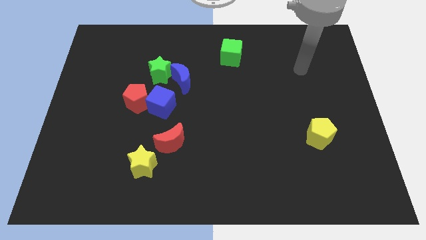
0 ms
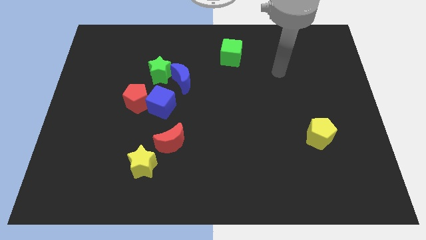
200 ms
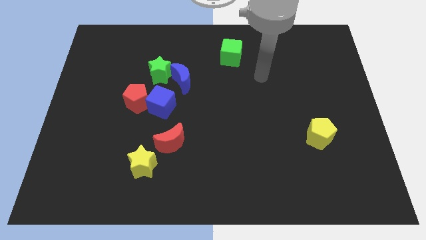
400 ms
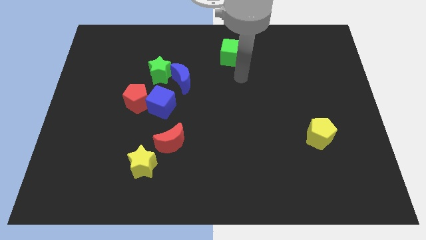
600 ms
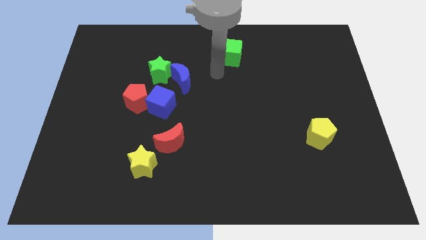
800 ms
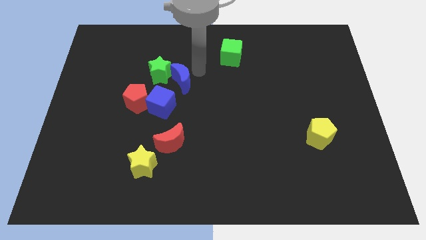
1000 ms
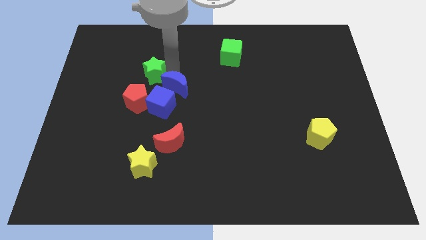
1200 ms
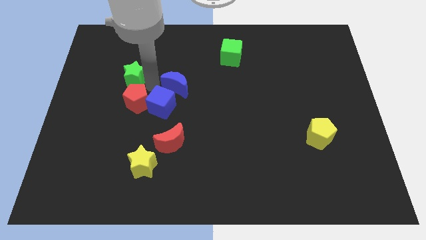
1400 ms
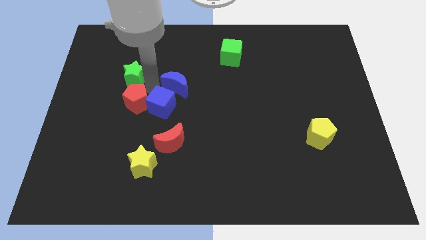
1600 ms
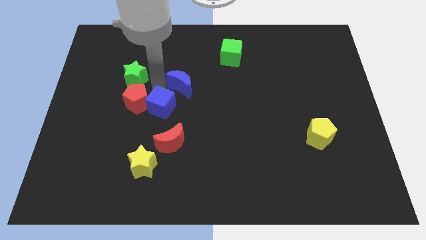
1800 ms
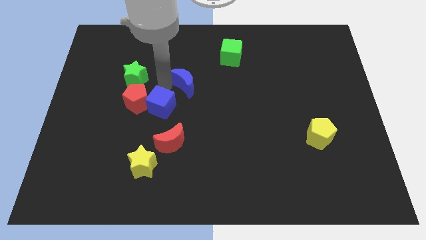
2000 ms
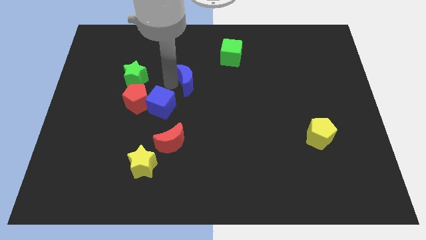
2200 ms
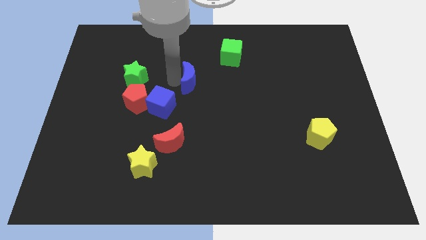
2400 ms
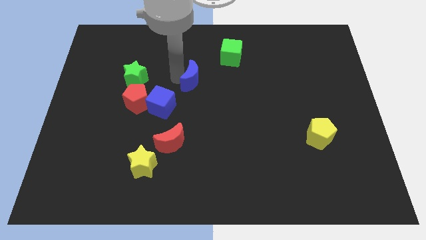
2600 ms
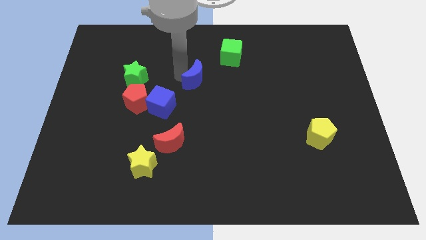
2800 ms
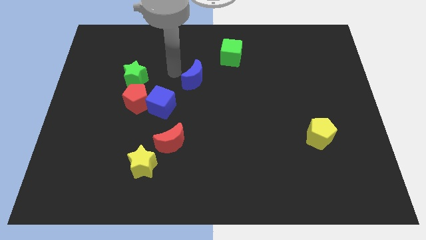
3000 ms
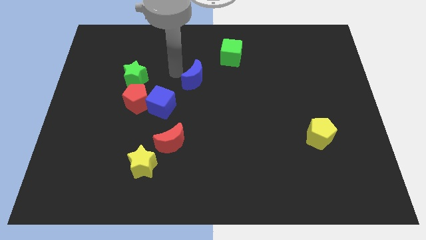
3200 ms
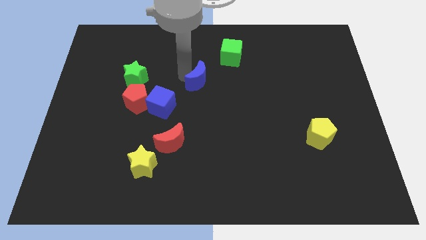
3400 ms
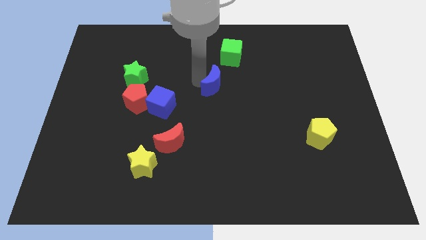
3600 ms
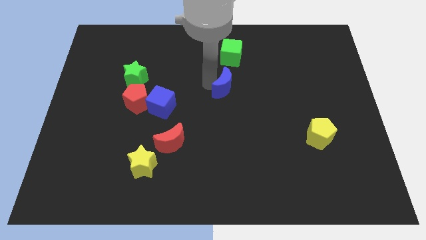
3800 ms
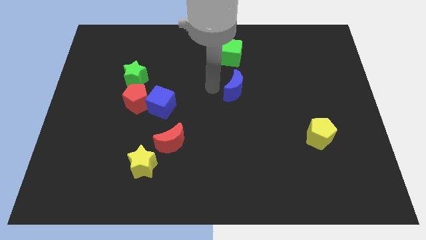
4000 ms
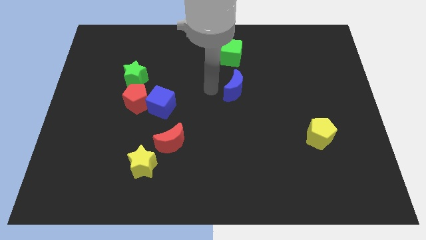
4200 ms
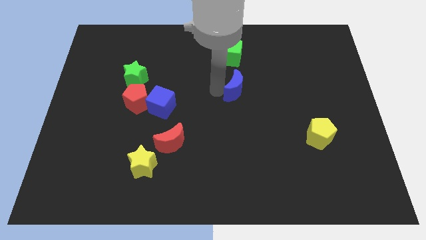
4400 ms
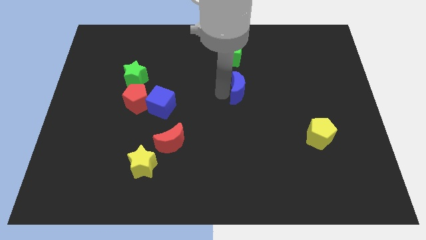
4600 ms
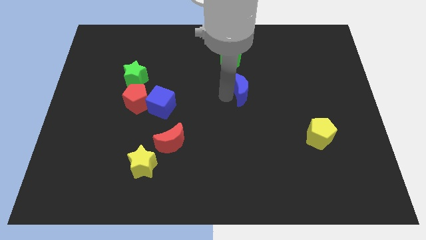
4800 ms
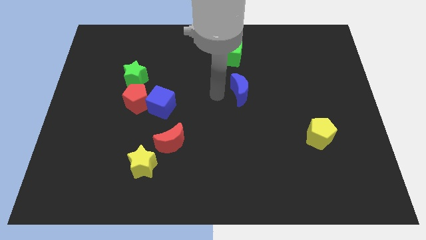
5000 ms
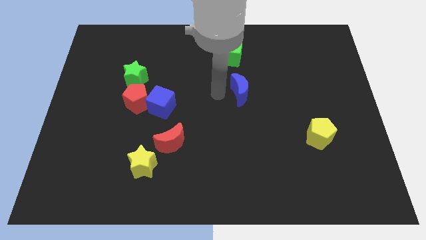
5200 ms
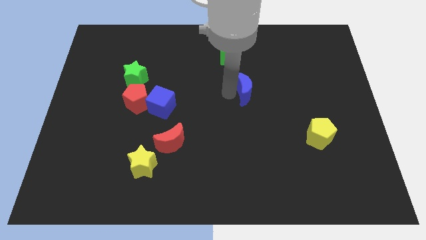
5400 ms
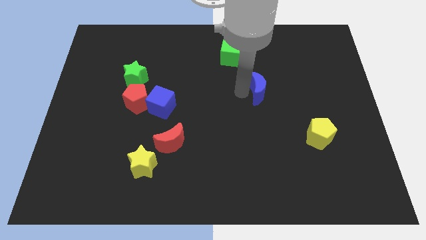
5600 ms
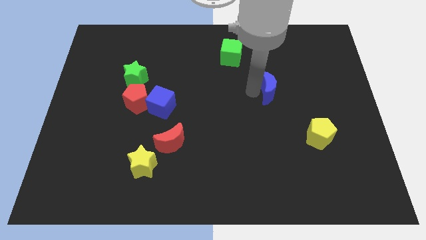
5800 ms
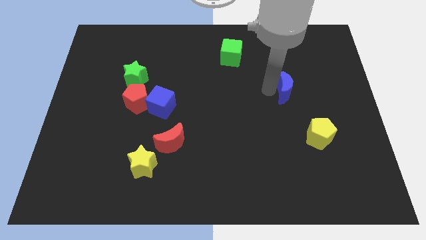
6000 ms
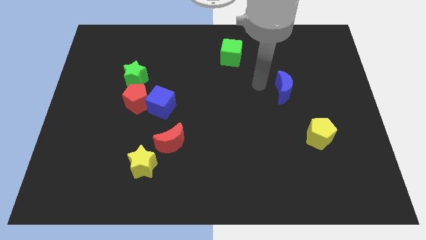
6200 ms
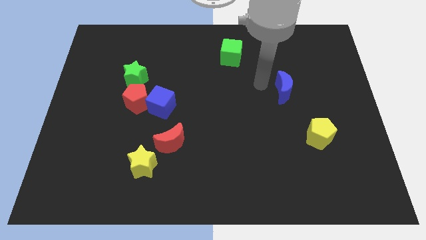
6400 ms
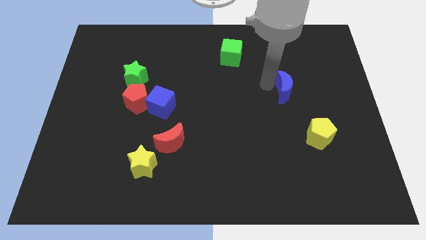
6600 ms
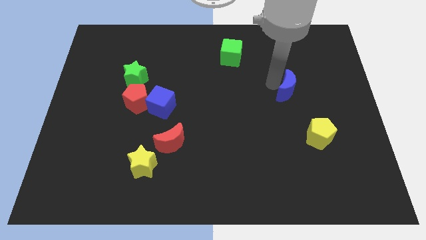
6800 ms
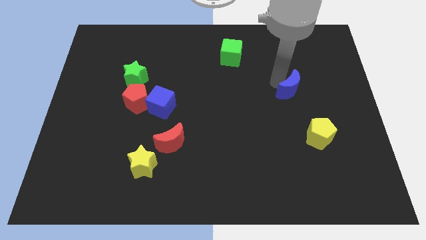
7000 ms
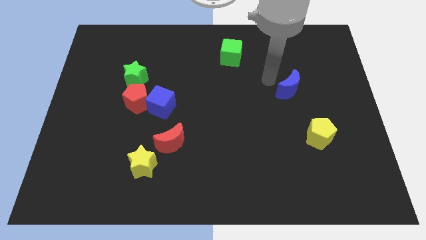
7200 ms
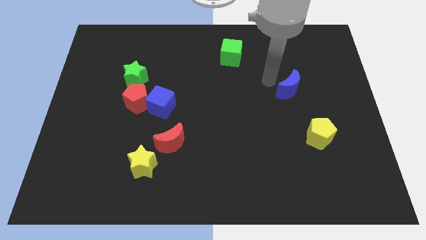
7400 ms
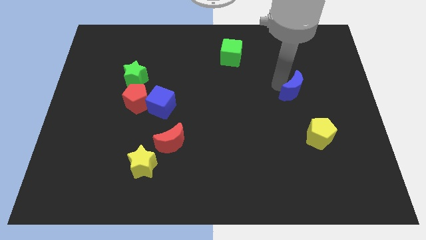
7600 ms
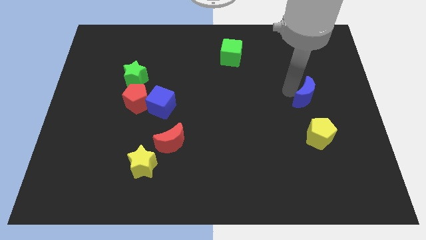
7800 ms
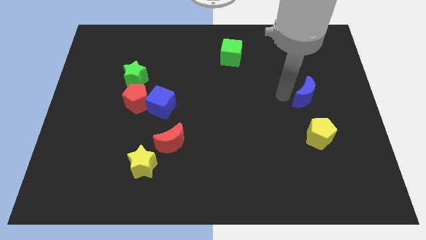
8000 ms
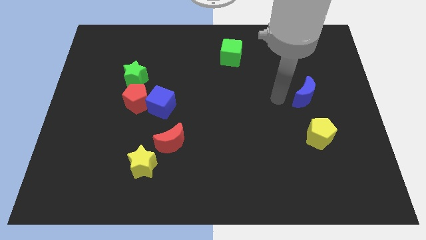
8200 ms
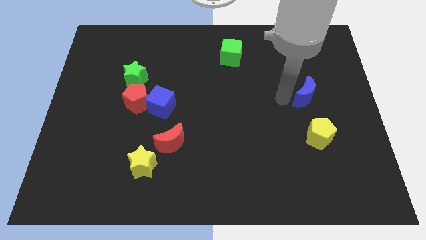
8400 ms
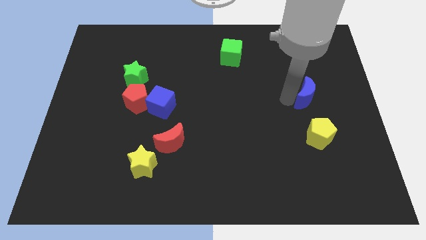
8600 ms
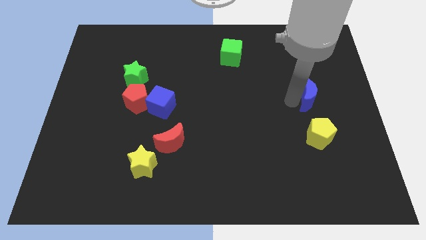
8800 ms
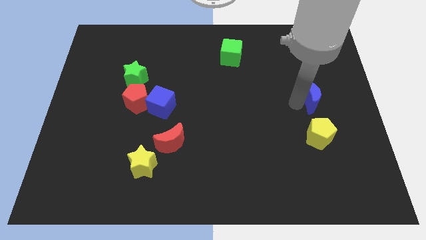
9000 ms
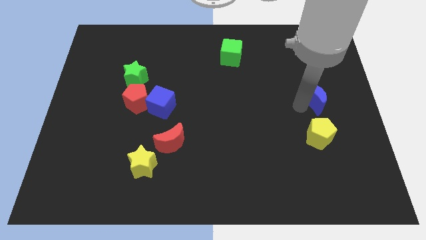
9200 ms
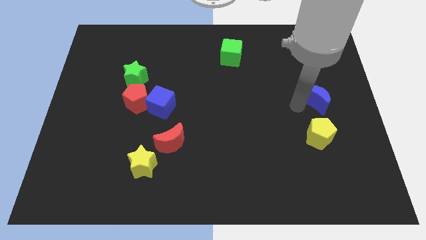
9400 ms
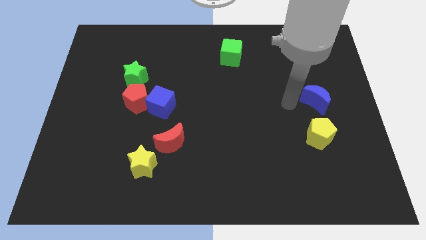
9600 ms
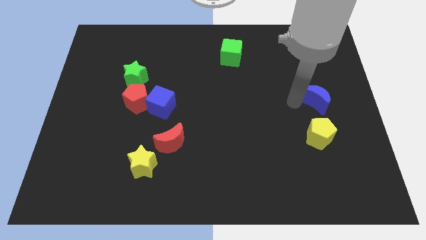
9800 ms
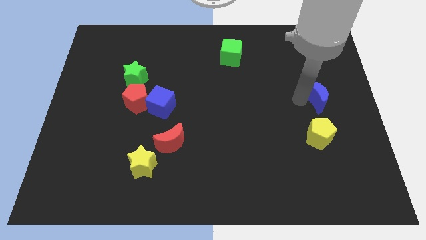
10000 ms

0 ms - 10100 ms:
push the blue moon to the center right

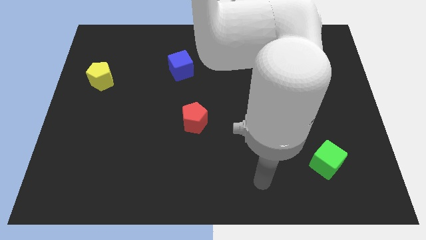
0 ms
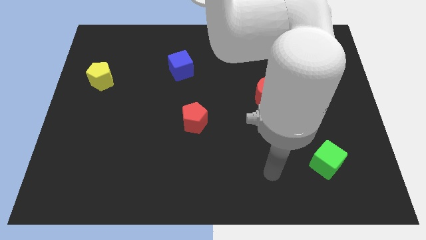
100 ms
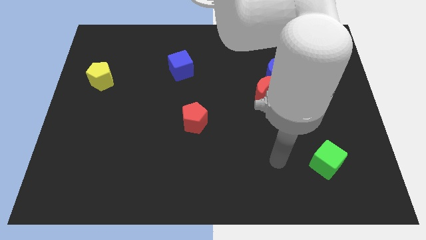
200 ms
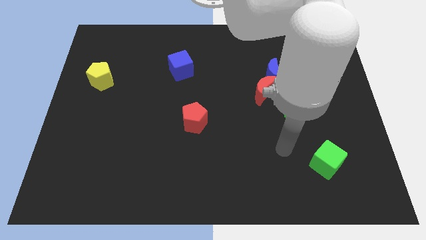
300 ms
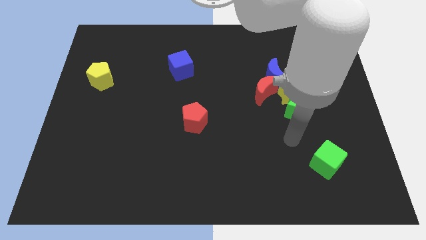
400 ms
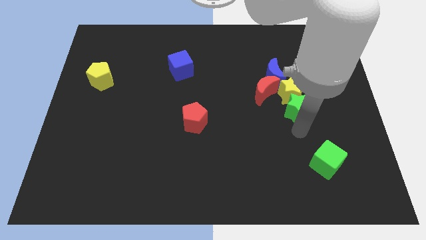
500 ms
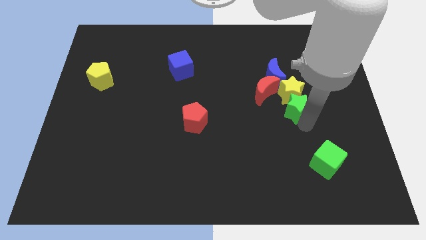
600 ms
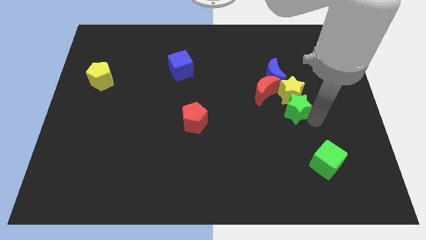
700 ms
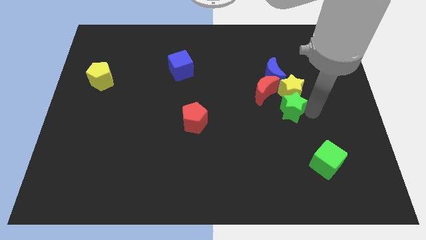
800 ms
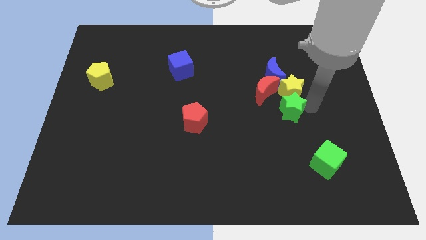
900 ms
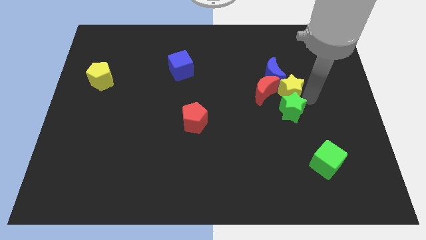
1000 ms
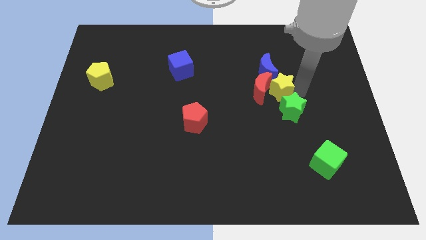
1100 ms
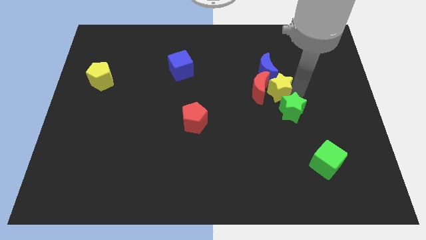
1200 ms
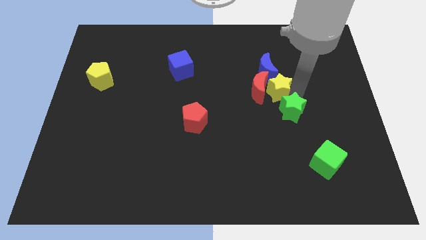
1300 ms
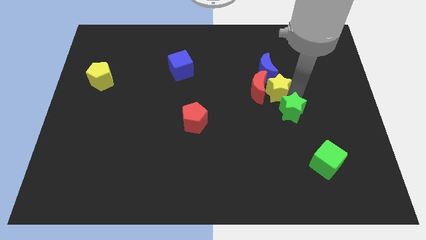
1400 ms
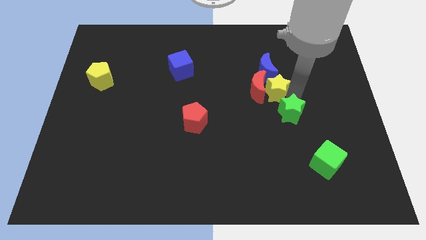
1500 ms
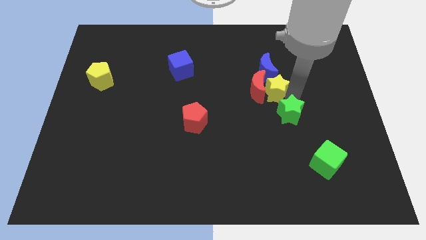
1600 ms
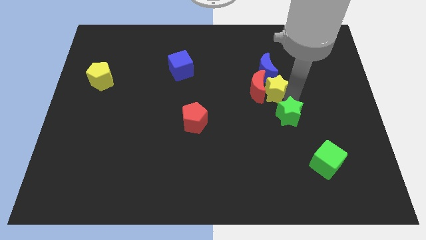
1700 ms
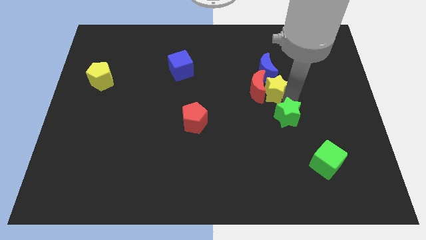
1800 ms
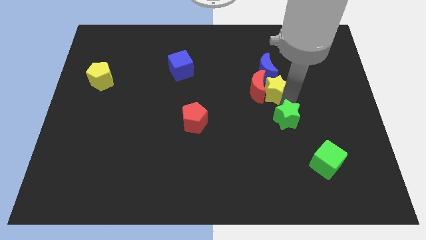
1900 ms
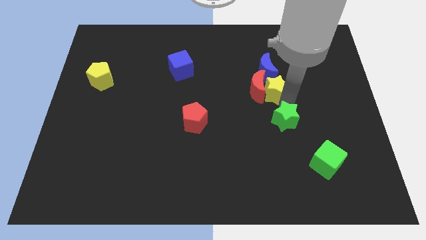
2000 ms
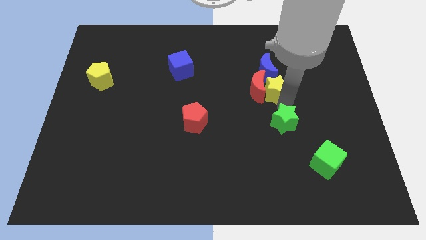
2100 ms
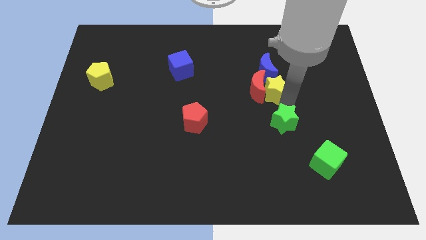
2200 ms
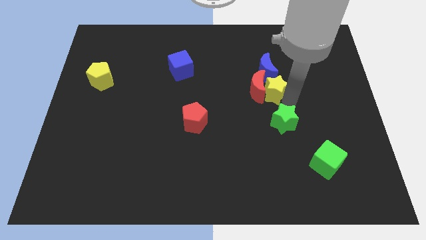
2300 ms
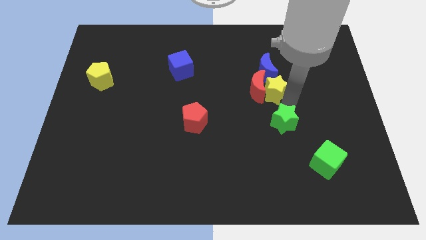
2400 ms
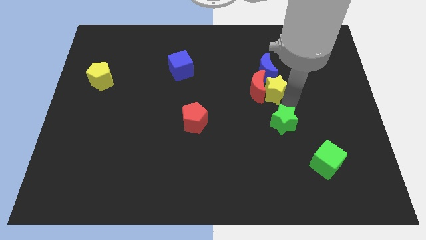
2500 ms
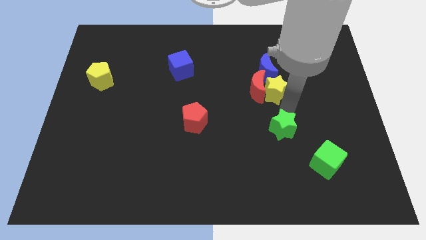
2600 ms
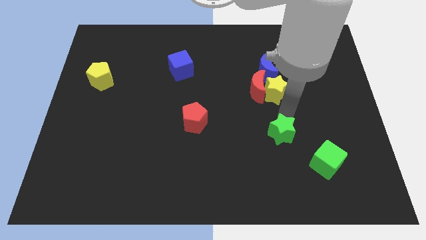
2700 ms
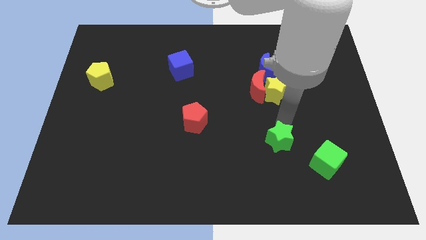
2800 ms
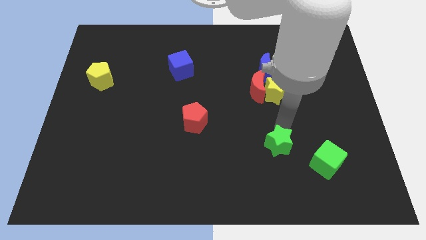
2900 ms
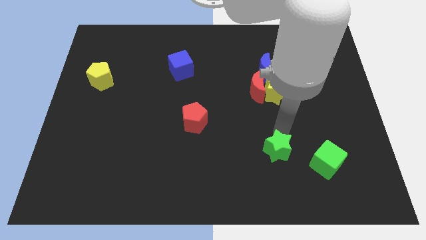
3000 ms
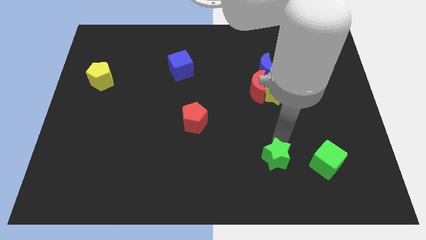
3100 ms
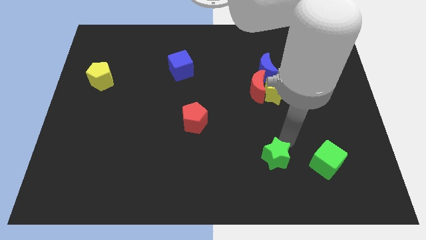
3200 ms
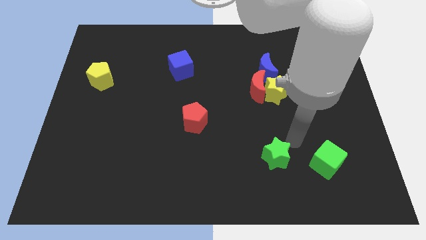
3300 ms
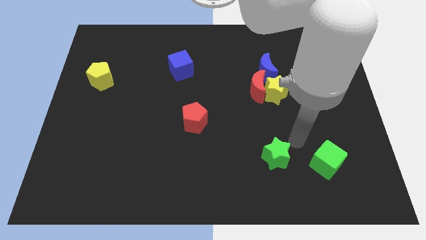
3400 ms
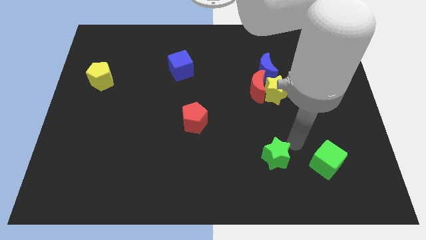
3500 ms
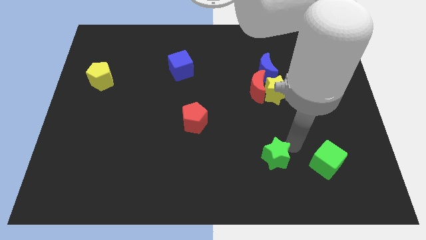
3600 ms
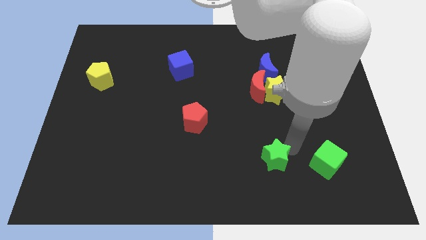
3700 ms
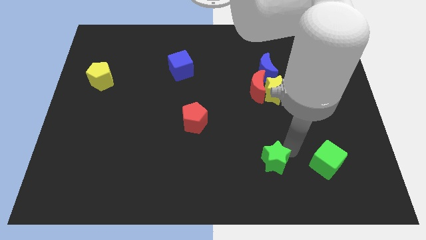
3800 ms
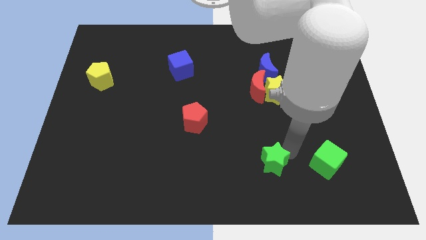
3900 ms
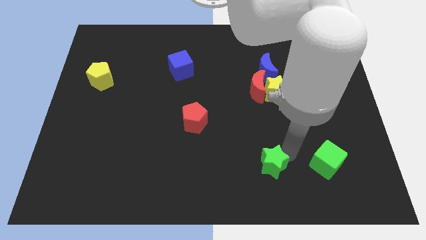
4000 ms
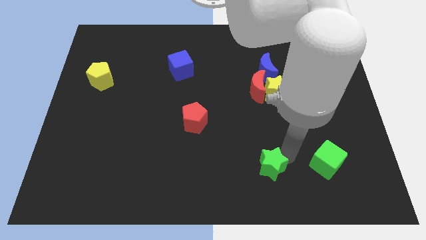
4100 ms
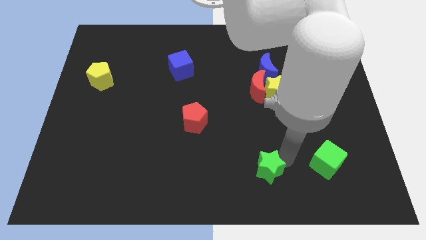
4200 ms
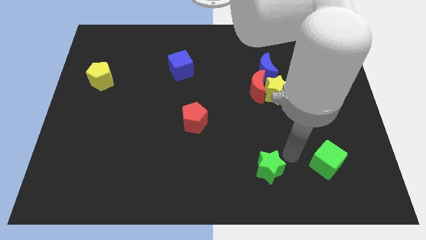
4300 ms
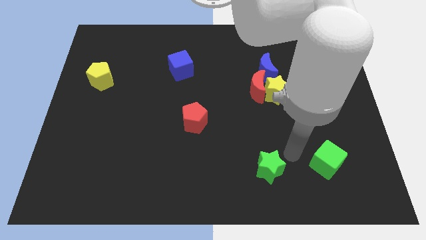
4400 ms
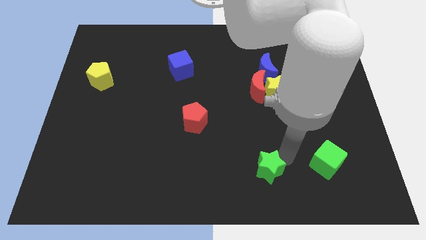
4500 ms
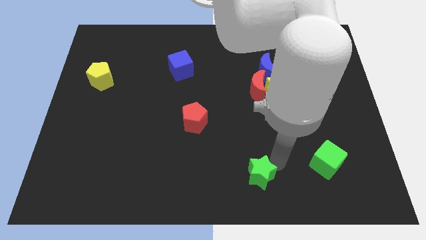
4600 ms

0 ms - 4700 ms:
put the green star to the bottom
